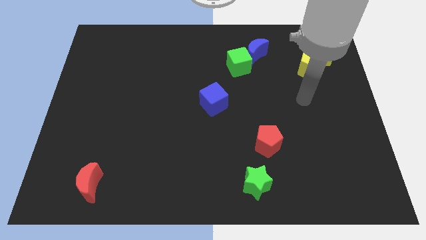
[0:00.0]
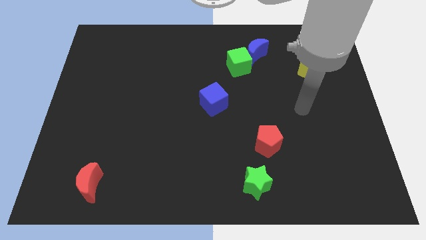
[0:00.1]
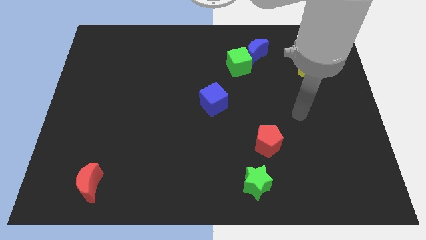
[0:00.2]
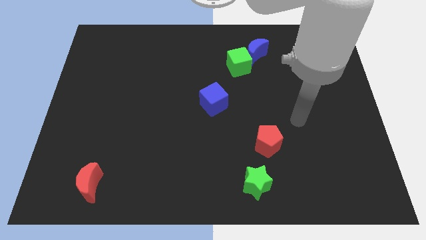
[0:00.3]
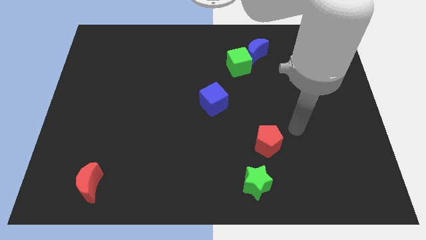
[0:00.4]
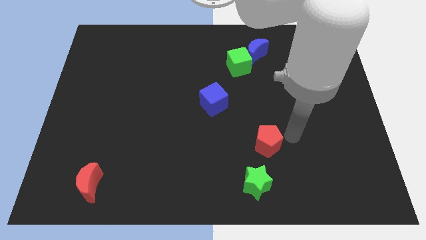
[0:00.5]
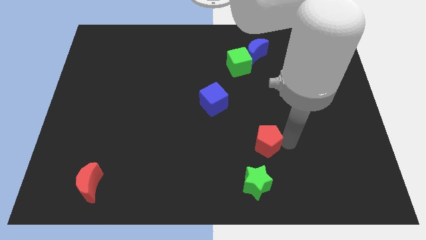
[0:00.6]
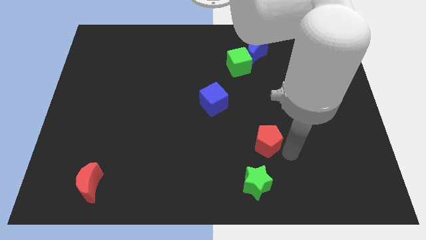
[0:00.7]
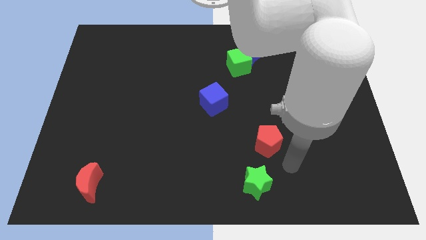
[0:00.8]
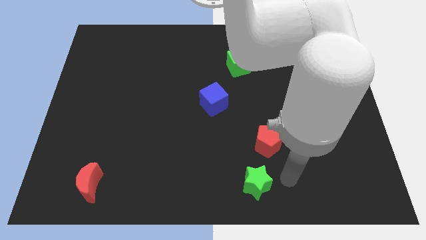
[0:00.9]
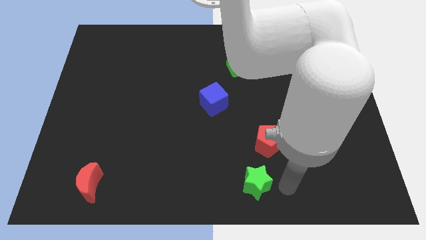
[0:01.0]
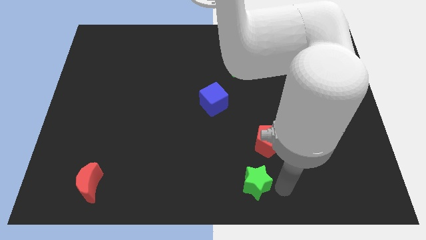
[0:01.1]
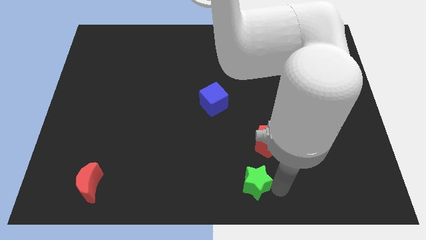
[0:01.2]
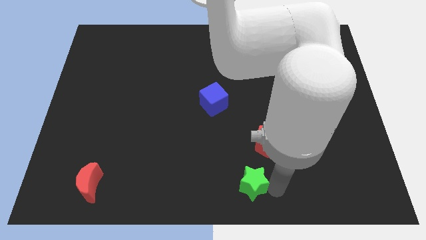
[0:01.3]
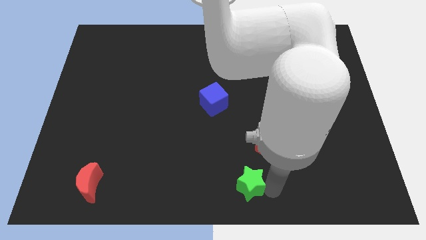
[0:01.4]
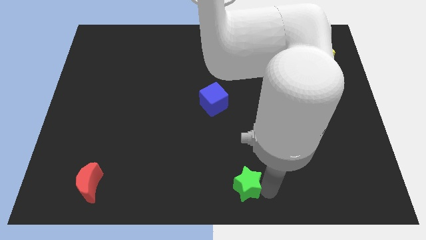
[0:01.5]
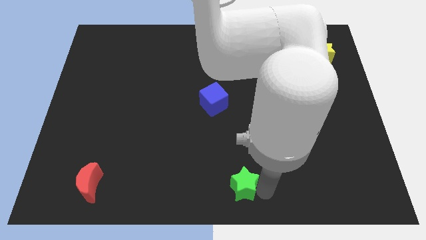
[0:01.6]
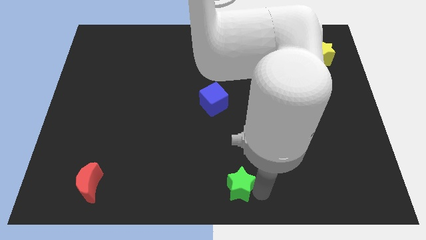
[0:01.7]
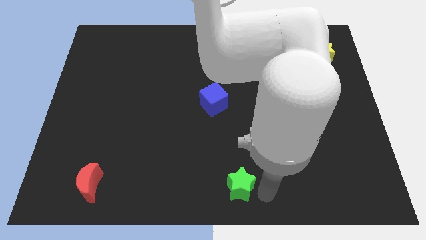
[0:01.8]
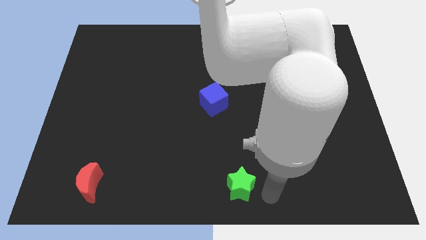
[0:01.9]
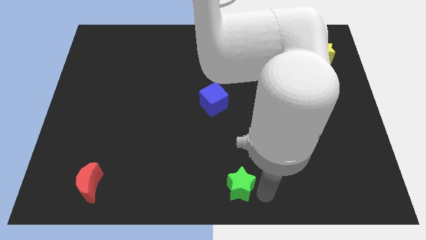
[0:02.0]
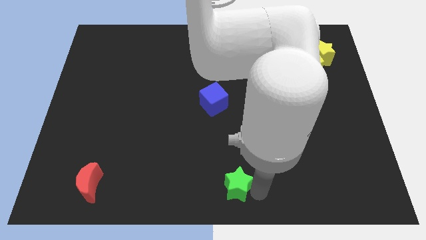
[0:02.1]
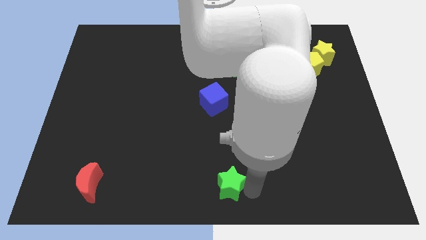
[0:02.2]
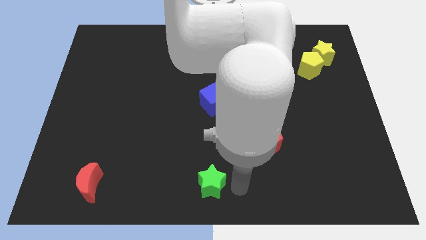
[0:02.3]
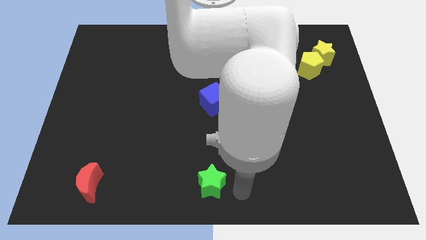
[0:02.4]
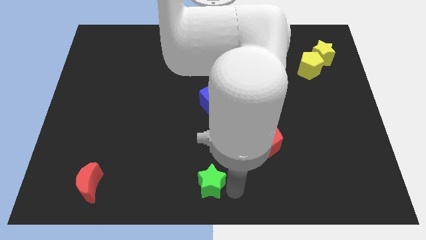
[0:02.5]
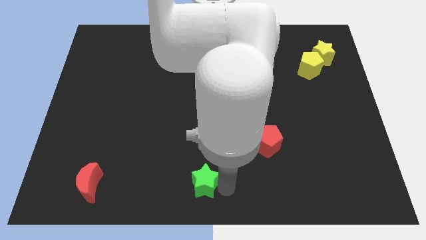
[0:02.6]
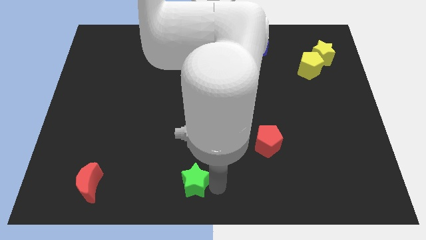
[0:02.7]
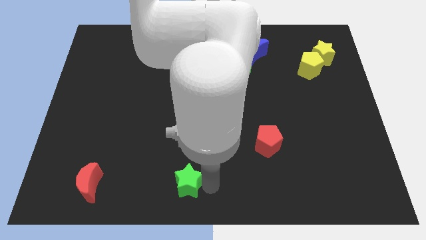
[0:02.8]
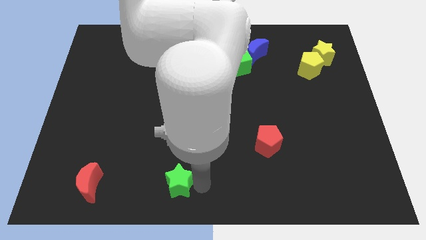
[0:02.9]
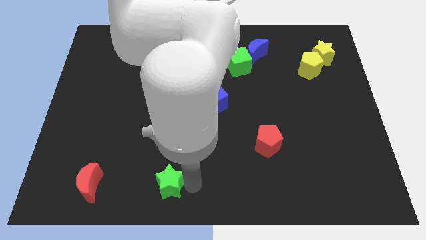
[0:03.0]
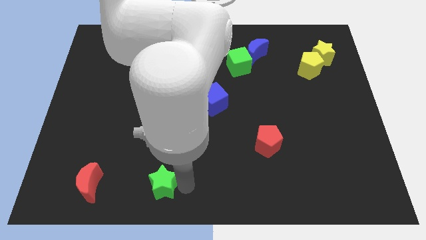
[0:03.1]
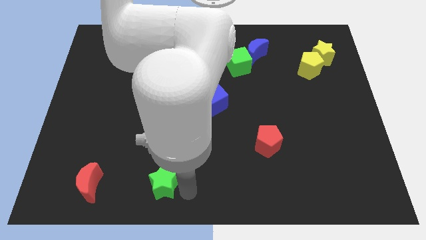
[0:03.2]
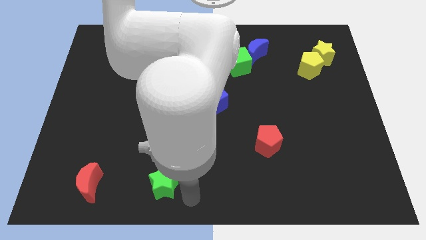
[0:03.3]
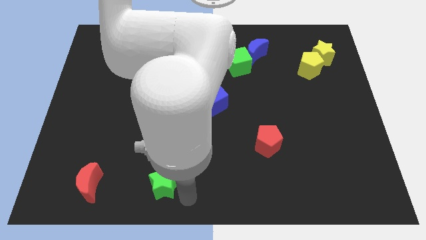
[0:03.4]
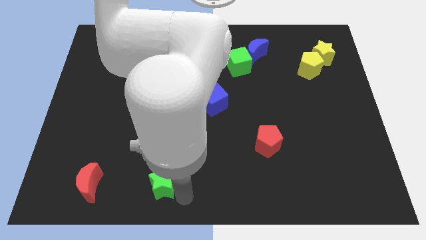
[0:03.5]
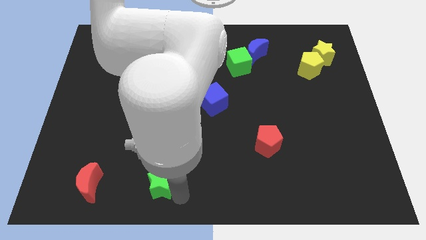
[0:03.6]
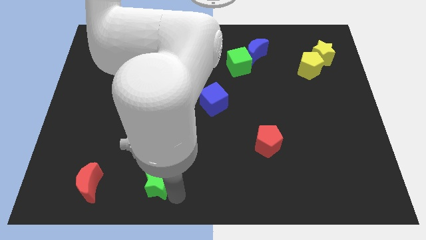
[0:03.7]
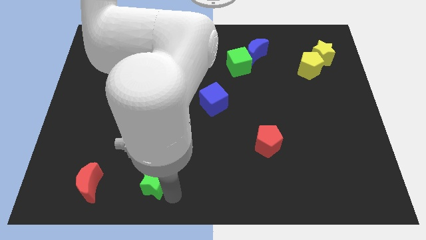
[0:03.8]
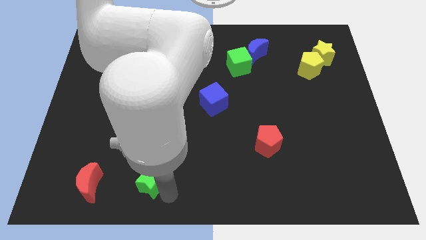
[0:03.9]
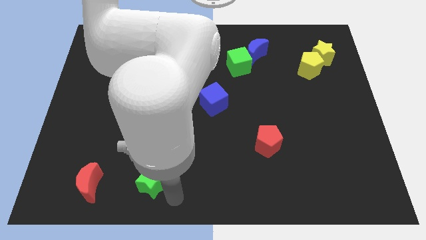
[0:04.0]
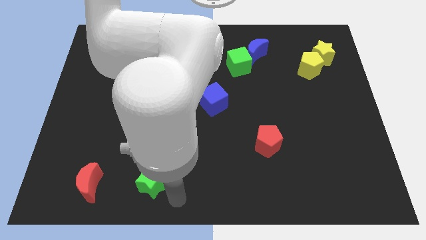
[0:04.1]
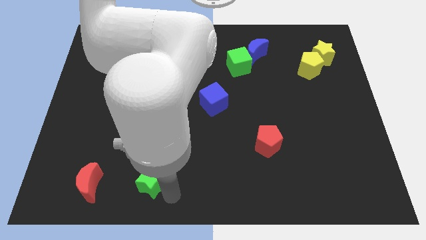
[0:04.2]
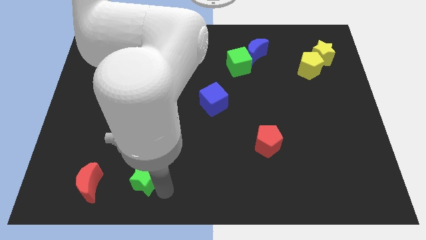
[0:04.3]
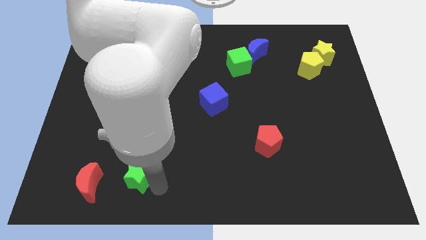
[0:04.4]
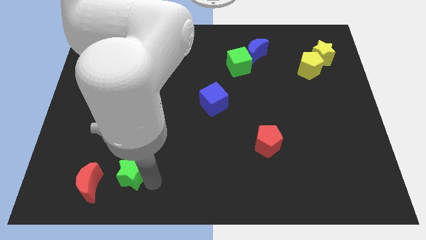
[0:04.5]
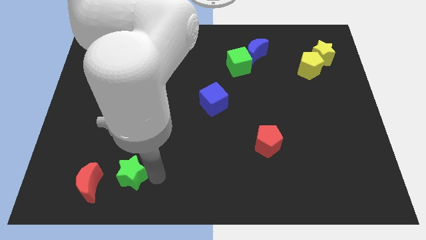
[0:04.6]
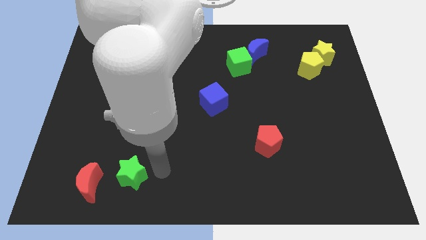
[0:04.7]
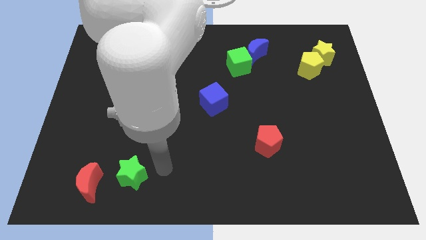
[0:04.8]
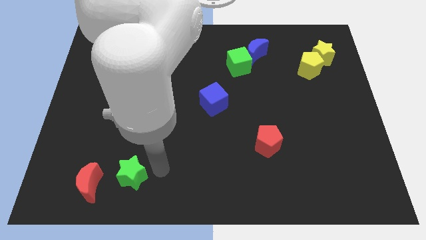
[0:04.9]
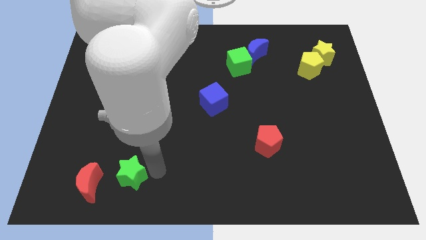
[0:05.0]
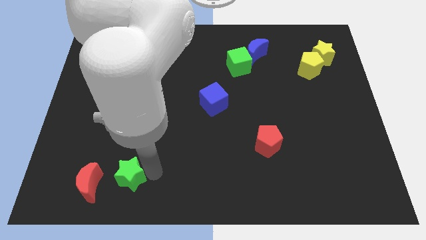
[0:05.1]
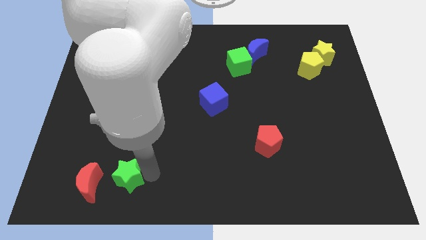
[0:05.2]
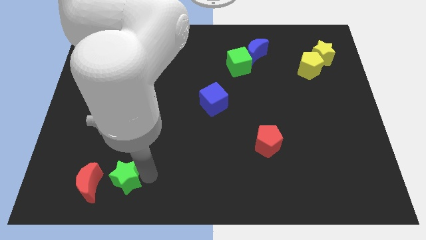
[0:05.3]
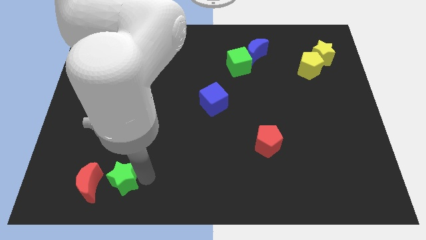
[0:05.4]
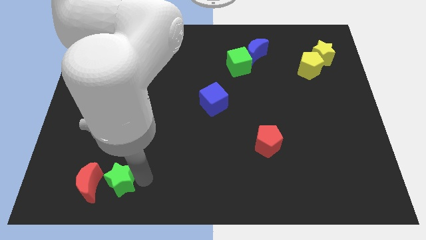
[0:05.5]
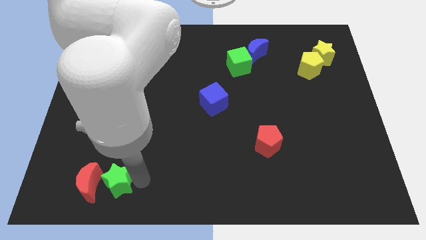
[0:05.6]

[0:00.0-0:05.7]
put the green star next to the red moon
